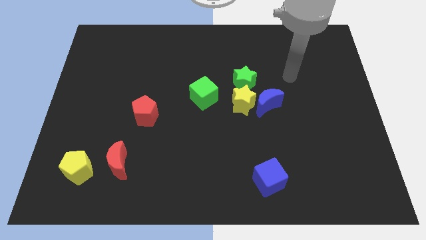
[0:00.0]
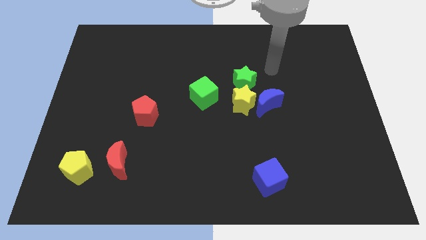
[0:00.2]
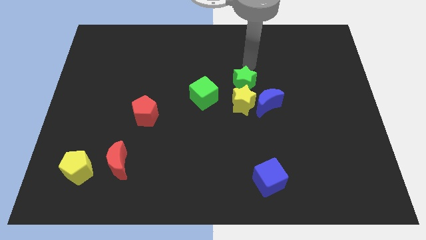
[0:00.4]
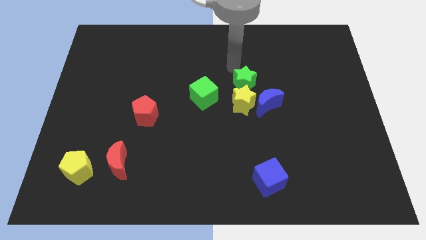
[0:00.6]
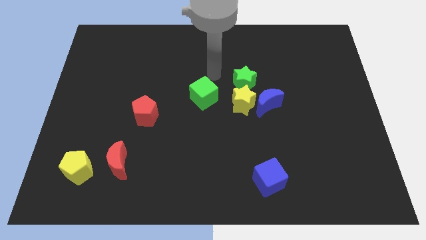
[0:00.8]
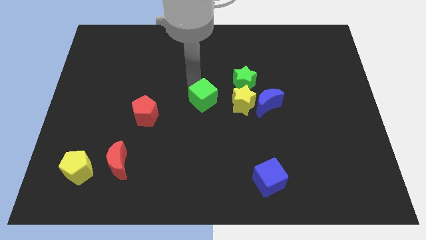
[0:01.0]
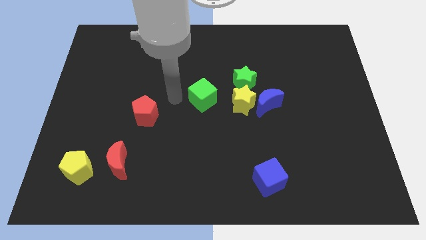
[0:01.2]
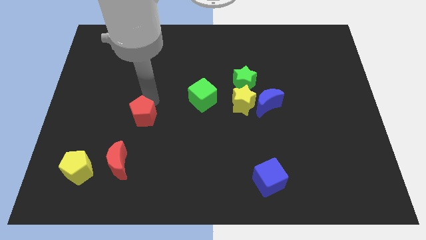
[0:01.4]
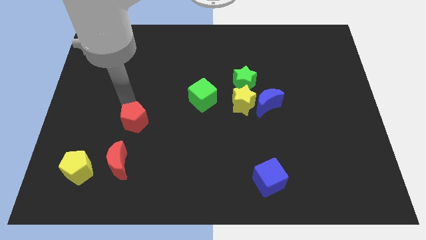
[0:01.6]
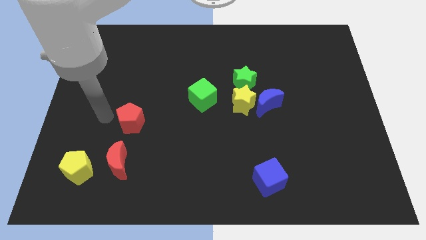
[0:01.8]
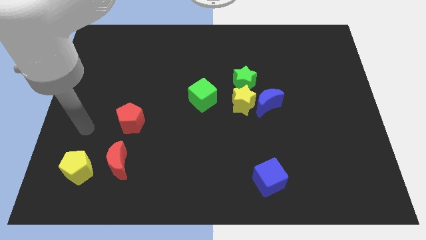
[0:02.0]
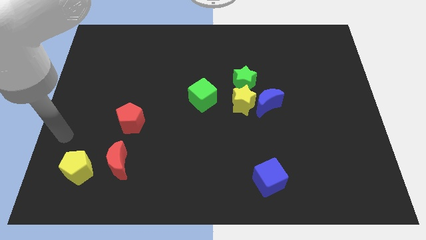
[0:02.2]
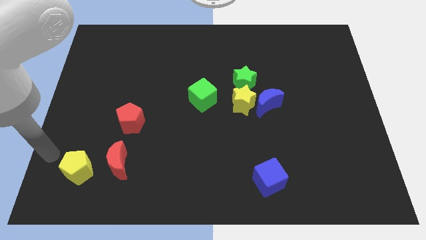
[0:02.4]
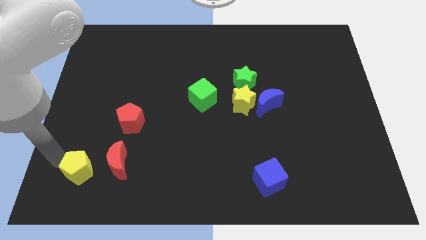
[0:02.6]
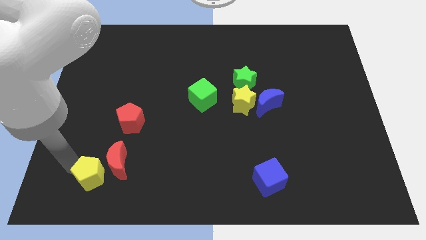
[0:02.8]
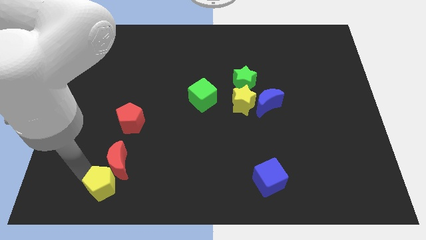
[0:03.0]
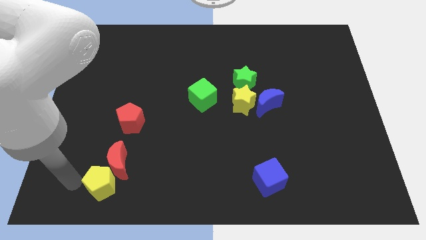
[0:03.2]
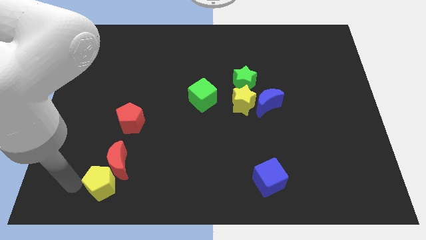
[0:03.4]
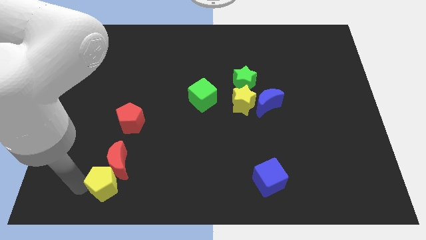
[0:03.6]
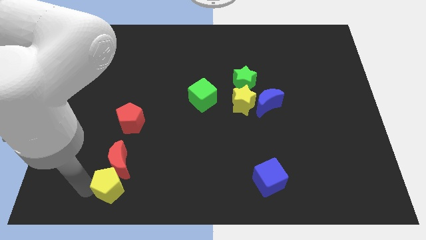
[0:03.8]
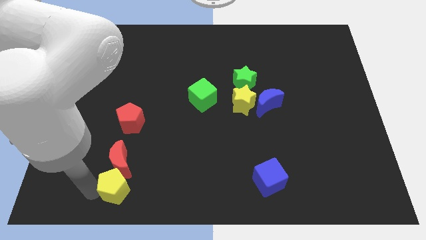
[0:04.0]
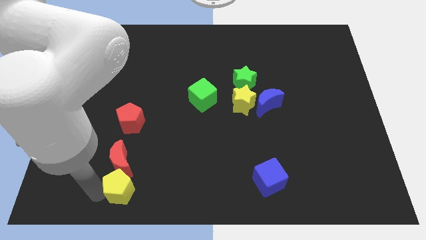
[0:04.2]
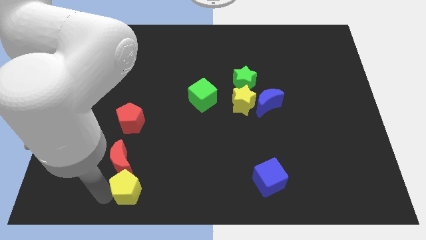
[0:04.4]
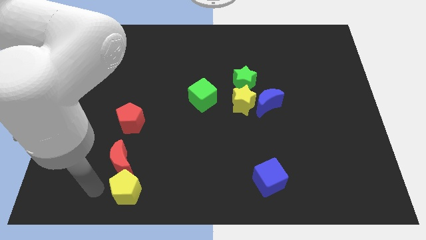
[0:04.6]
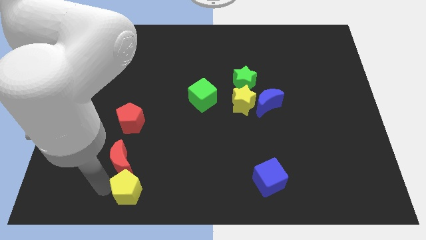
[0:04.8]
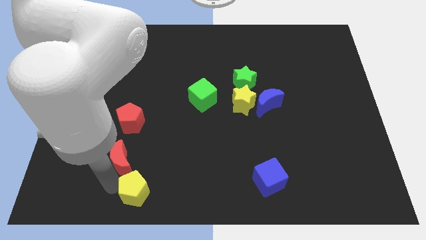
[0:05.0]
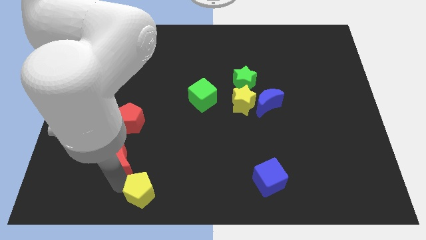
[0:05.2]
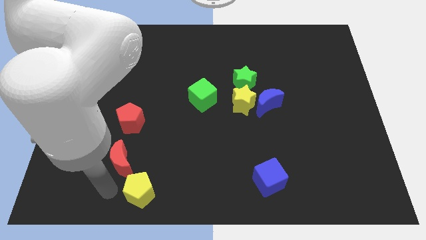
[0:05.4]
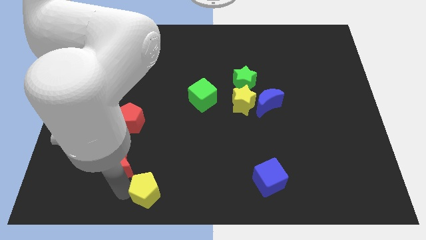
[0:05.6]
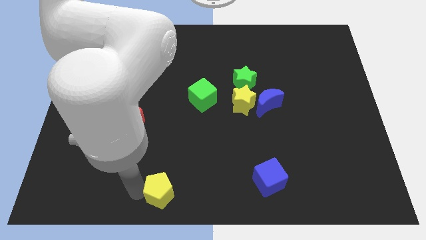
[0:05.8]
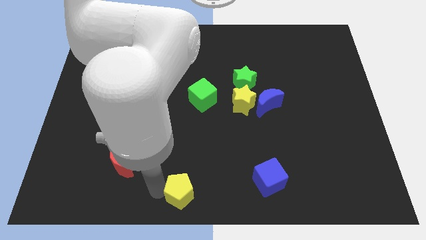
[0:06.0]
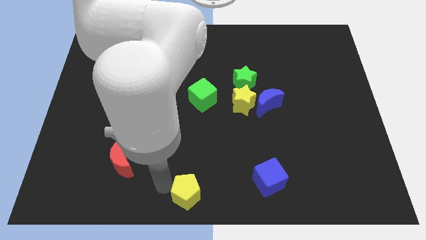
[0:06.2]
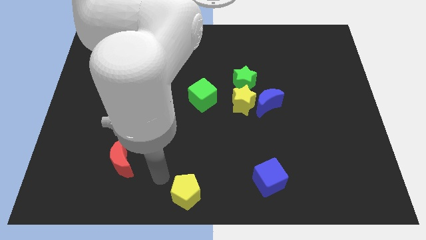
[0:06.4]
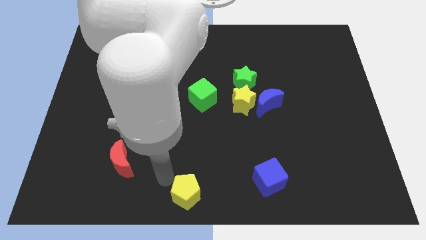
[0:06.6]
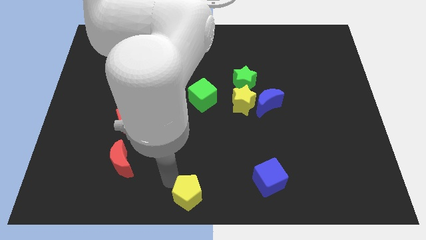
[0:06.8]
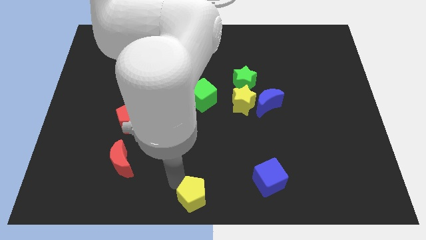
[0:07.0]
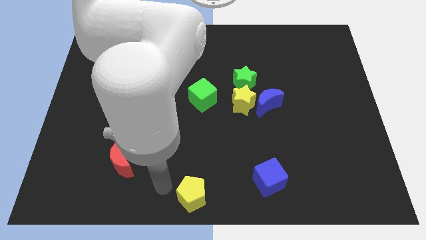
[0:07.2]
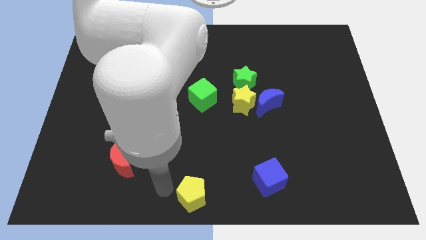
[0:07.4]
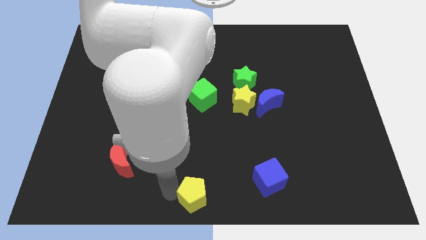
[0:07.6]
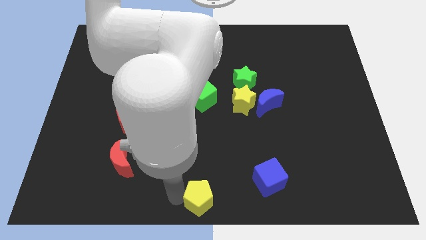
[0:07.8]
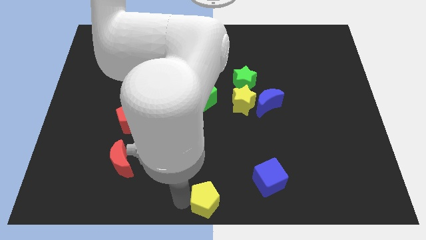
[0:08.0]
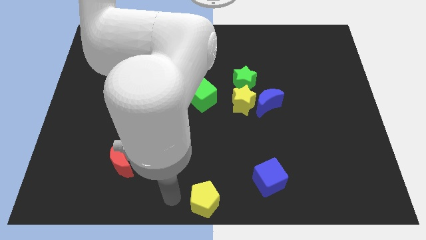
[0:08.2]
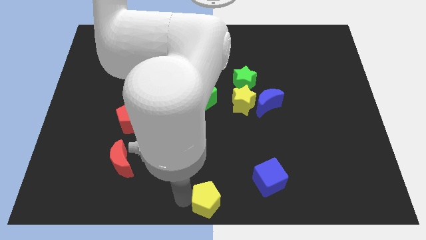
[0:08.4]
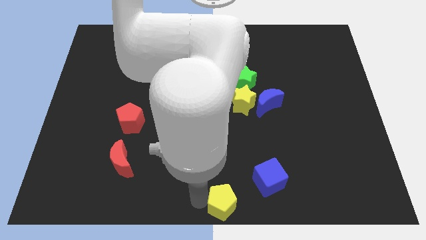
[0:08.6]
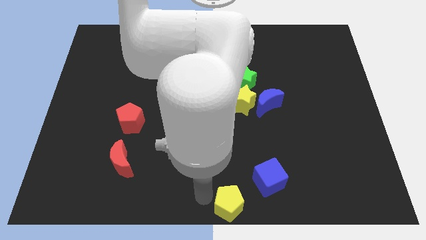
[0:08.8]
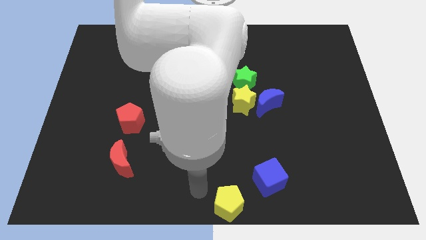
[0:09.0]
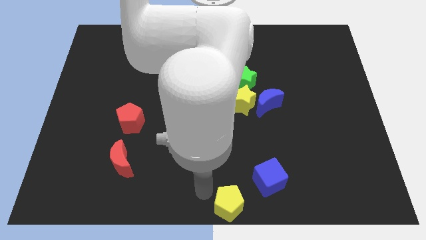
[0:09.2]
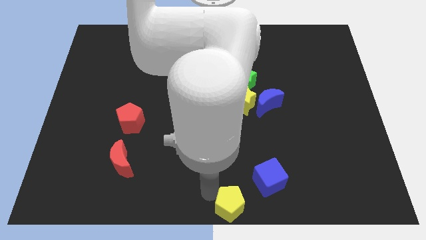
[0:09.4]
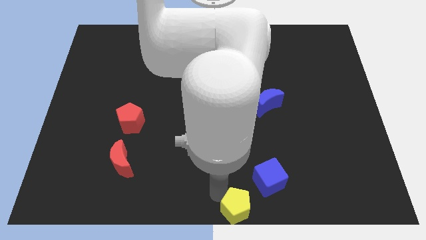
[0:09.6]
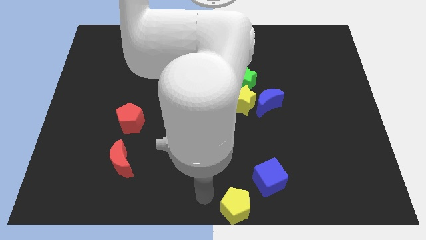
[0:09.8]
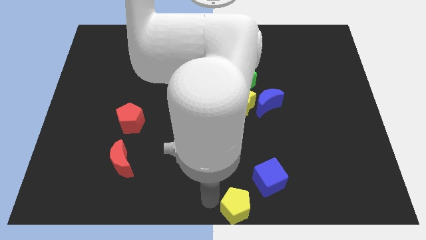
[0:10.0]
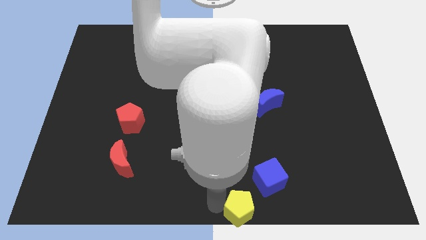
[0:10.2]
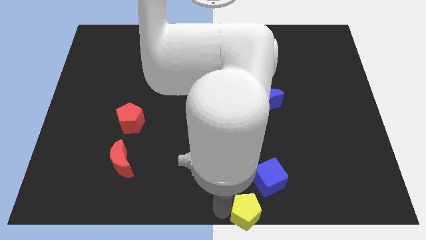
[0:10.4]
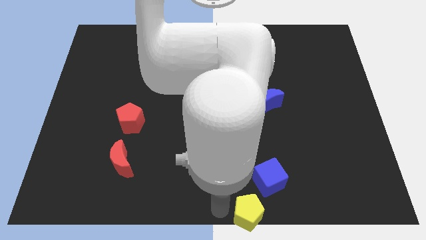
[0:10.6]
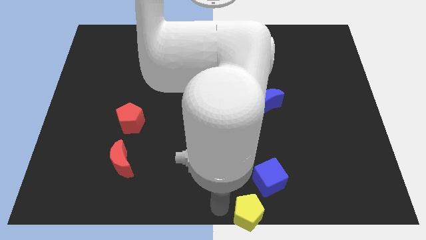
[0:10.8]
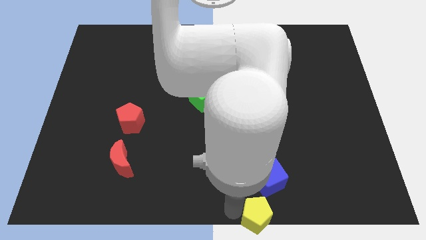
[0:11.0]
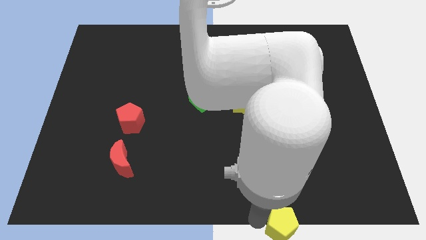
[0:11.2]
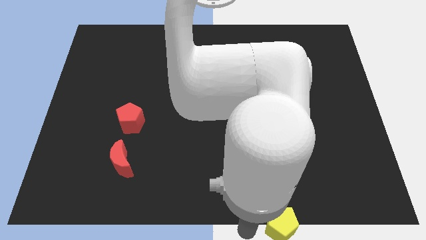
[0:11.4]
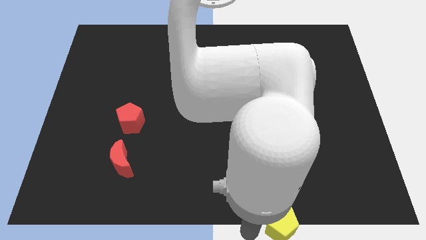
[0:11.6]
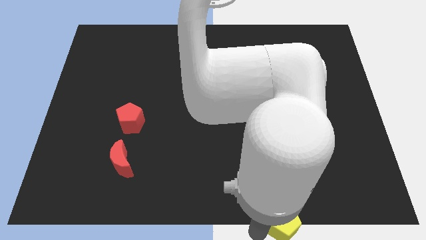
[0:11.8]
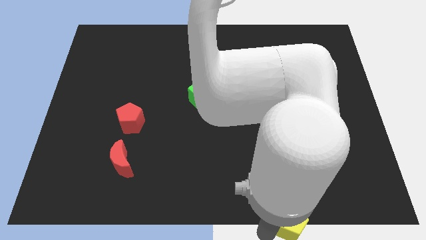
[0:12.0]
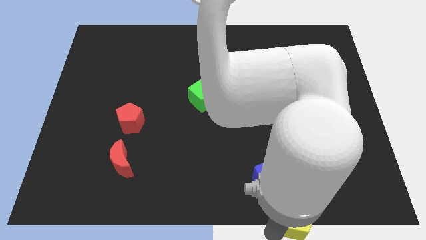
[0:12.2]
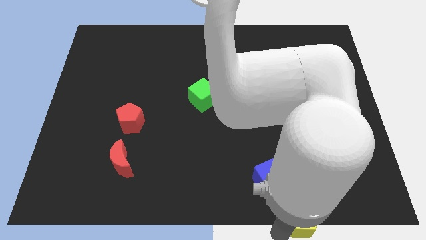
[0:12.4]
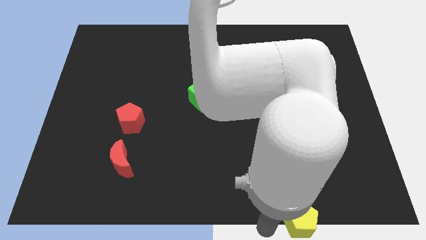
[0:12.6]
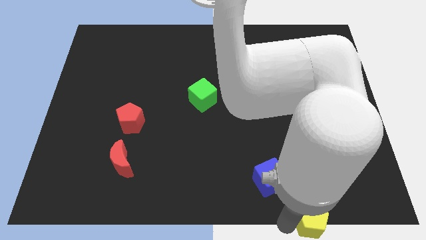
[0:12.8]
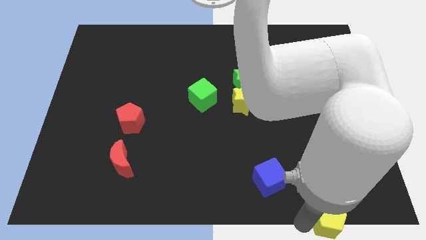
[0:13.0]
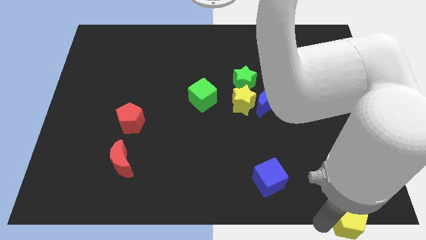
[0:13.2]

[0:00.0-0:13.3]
slide the yellow pentagon to the bottom right of the board
